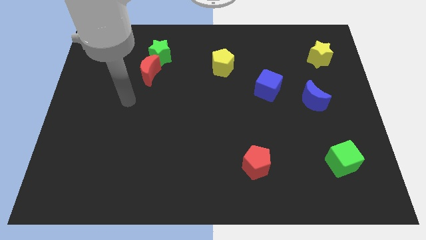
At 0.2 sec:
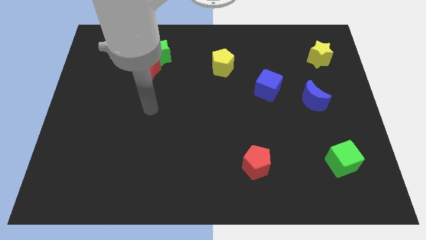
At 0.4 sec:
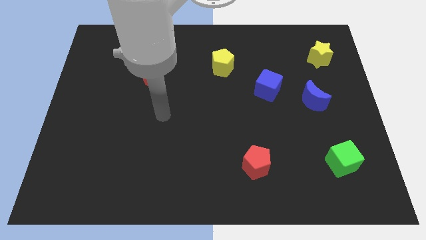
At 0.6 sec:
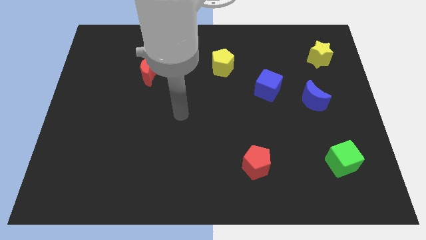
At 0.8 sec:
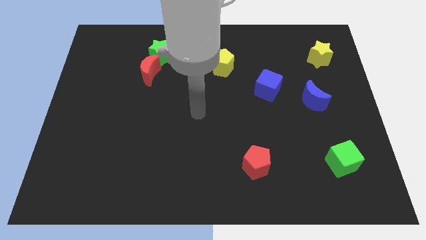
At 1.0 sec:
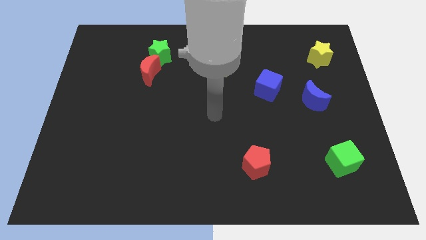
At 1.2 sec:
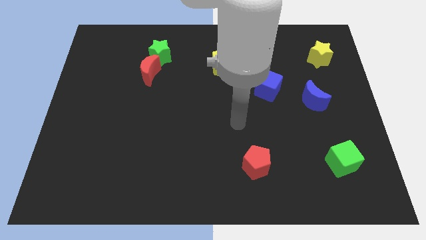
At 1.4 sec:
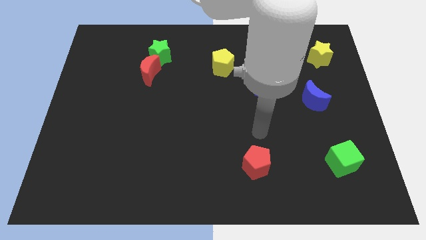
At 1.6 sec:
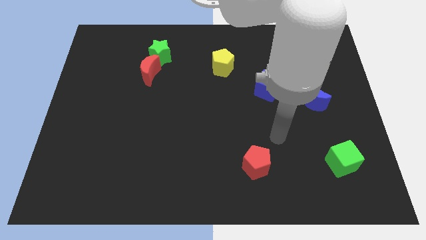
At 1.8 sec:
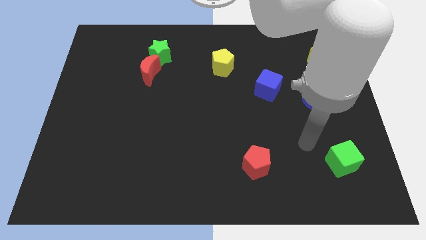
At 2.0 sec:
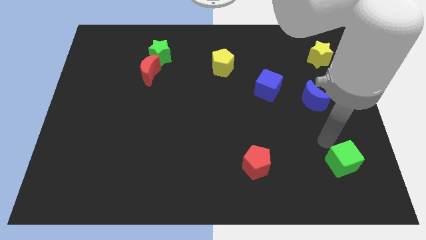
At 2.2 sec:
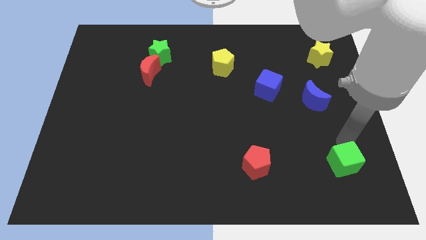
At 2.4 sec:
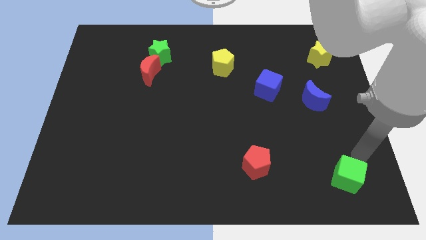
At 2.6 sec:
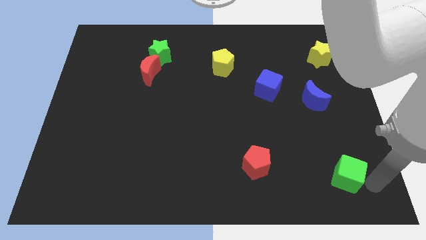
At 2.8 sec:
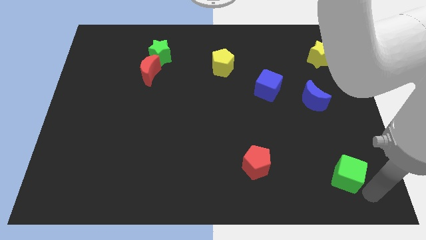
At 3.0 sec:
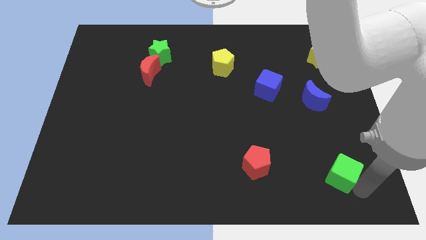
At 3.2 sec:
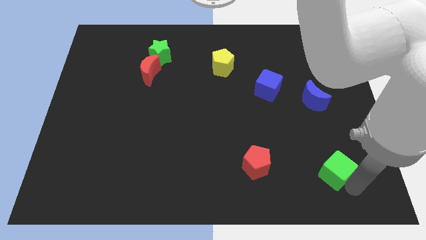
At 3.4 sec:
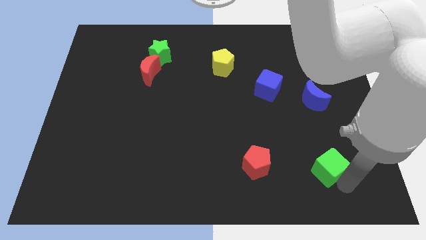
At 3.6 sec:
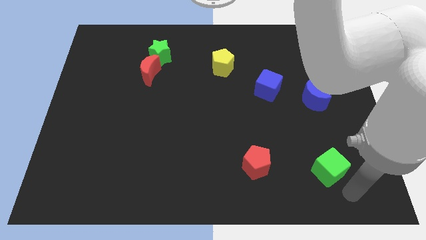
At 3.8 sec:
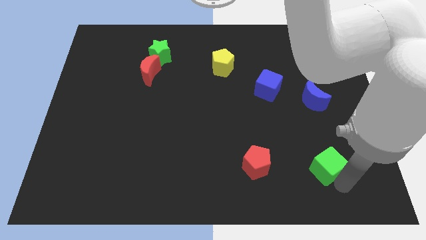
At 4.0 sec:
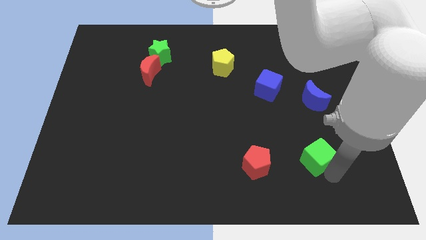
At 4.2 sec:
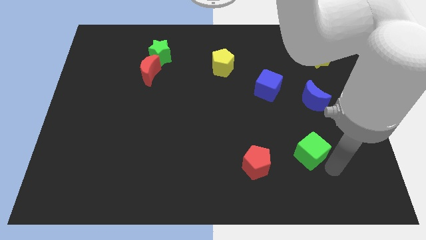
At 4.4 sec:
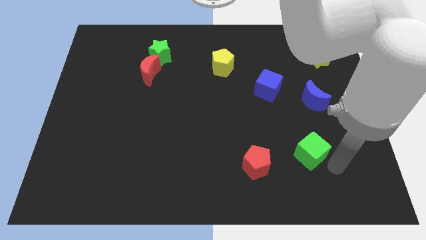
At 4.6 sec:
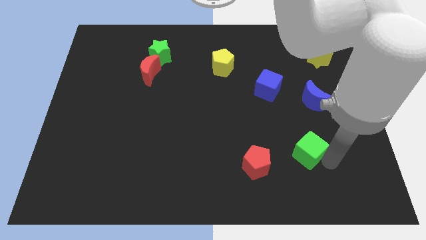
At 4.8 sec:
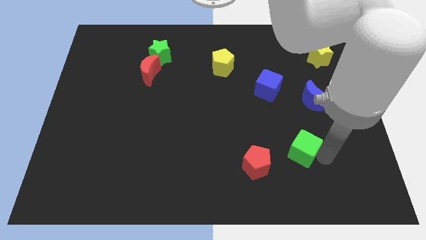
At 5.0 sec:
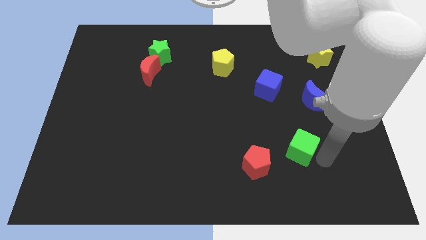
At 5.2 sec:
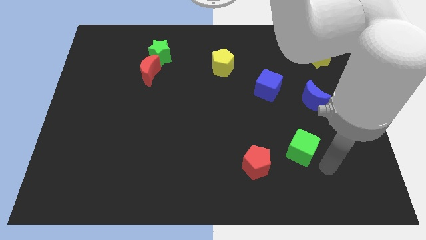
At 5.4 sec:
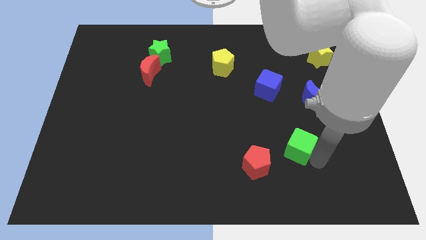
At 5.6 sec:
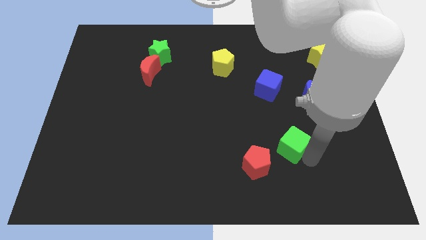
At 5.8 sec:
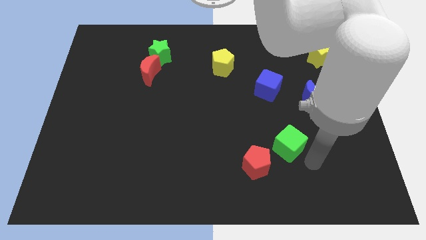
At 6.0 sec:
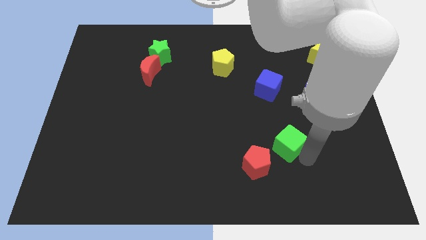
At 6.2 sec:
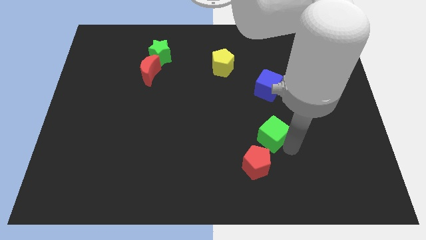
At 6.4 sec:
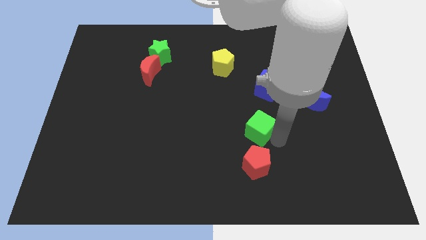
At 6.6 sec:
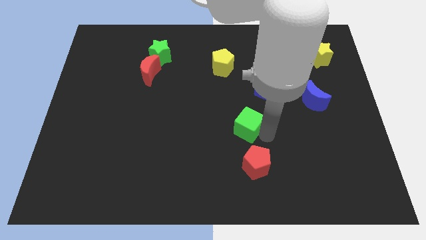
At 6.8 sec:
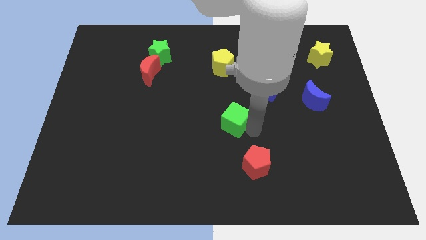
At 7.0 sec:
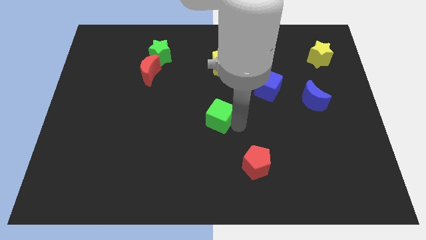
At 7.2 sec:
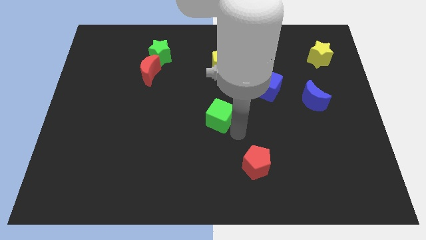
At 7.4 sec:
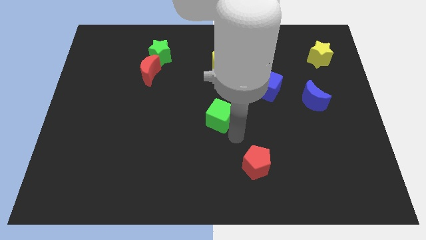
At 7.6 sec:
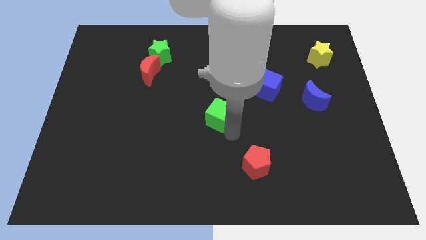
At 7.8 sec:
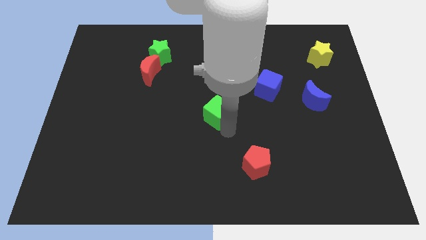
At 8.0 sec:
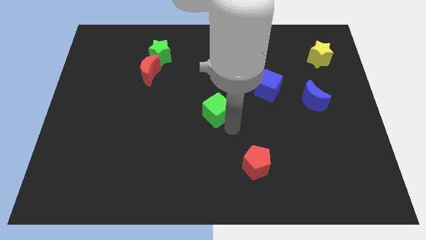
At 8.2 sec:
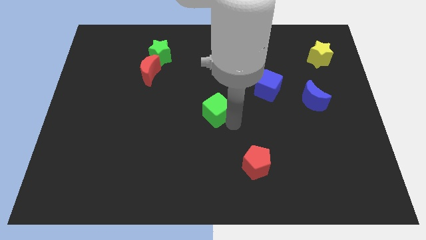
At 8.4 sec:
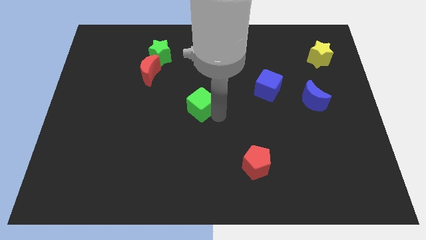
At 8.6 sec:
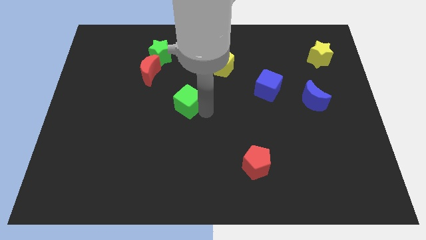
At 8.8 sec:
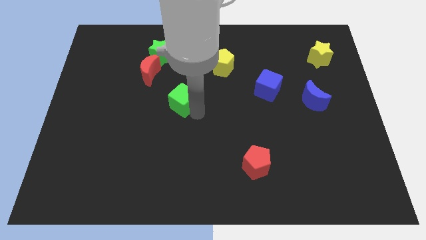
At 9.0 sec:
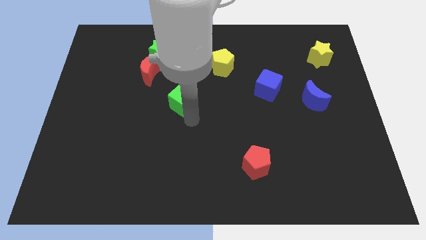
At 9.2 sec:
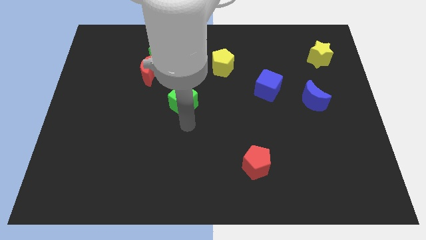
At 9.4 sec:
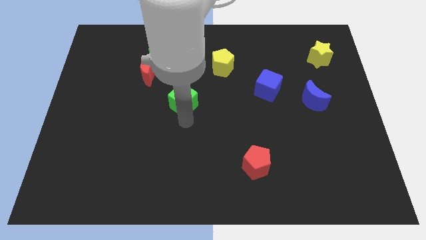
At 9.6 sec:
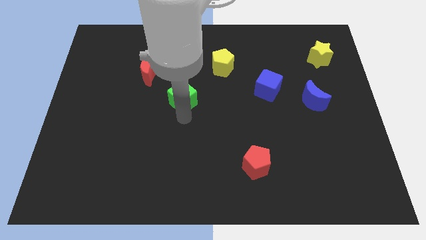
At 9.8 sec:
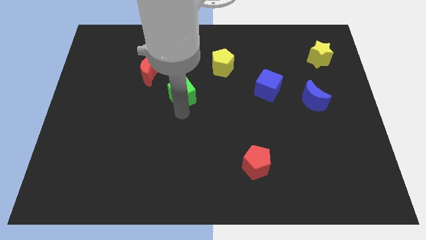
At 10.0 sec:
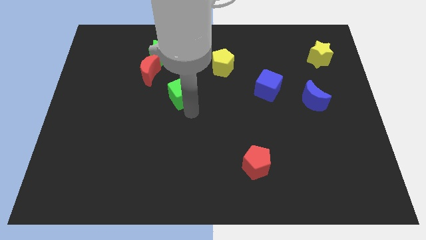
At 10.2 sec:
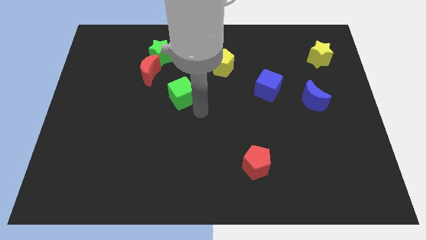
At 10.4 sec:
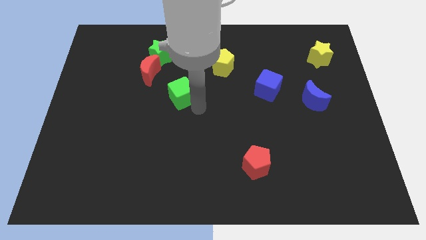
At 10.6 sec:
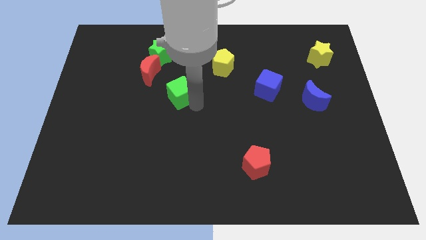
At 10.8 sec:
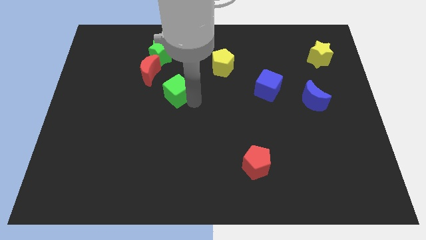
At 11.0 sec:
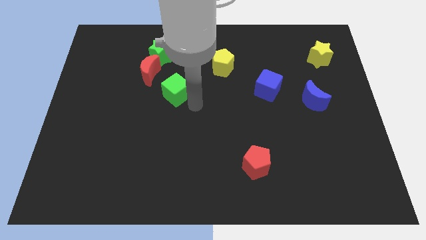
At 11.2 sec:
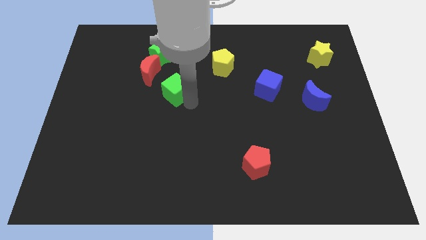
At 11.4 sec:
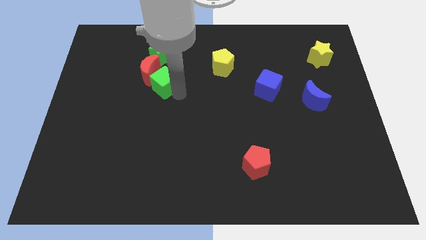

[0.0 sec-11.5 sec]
push the green cube to the red moon

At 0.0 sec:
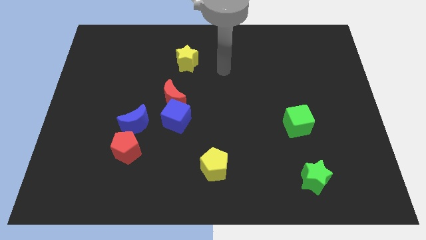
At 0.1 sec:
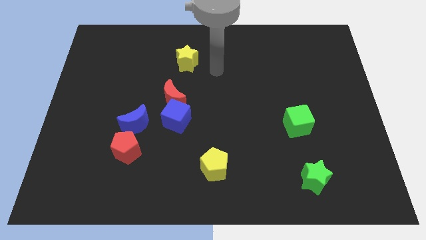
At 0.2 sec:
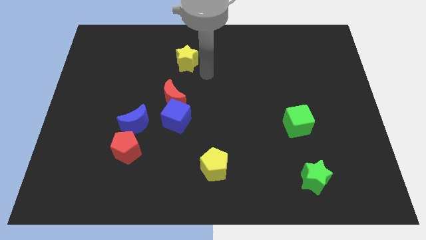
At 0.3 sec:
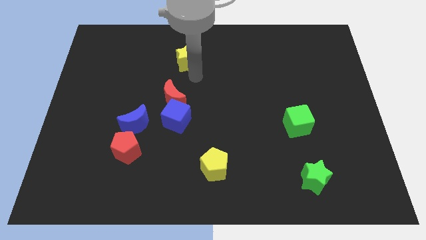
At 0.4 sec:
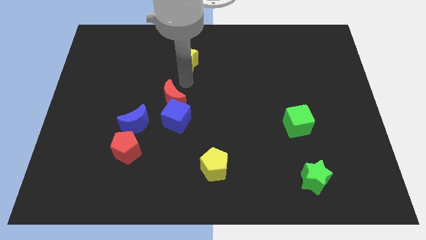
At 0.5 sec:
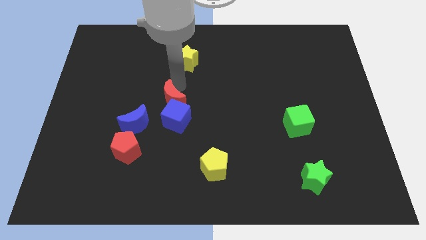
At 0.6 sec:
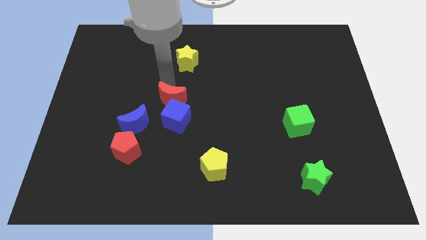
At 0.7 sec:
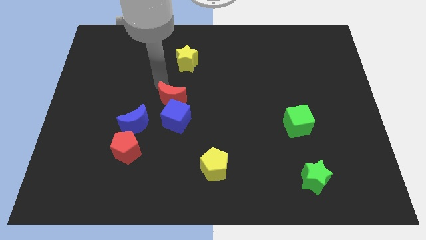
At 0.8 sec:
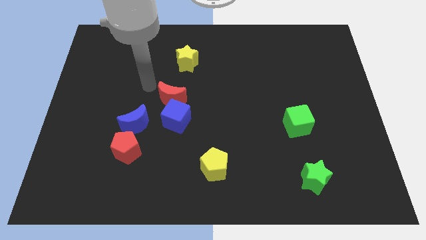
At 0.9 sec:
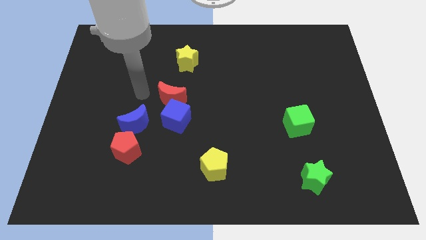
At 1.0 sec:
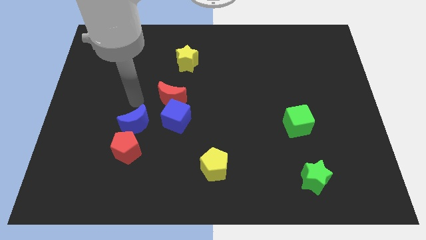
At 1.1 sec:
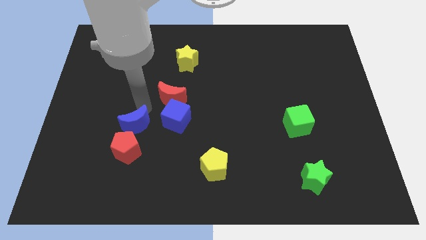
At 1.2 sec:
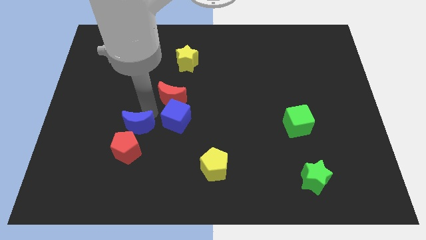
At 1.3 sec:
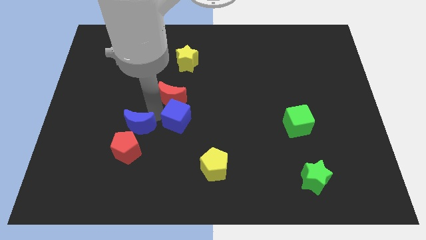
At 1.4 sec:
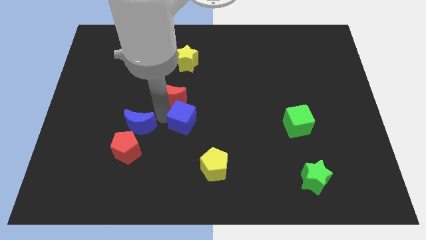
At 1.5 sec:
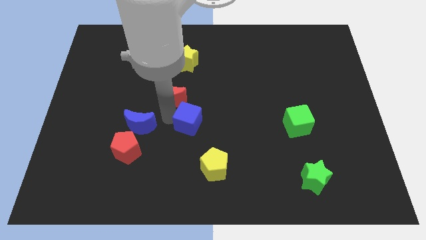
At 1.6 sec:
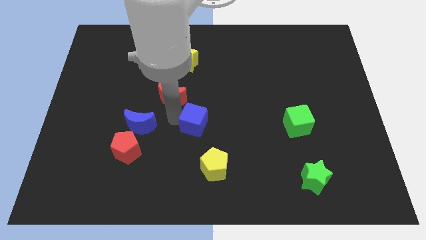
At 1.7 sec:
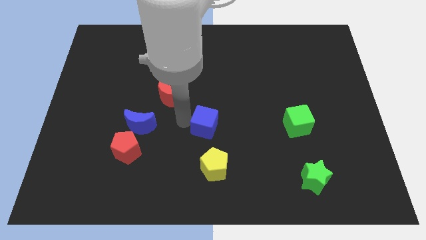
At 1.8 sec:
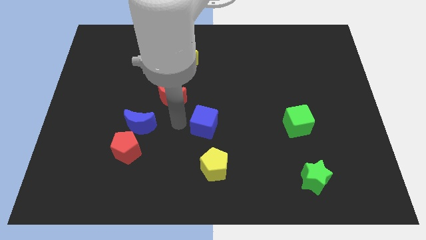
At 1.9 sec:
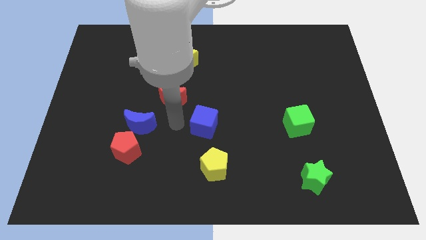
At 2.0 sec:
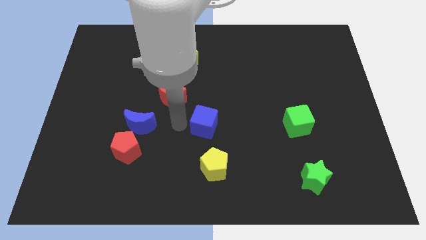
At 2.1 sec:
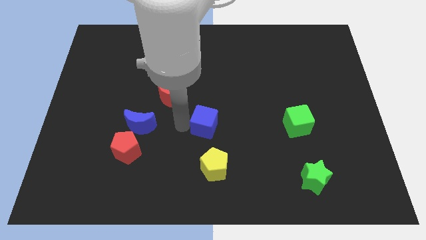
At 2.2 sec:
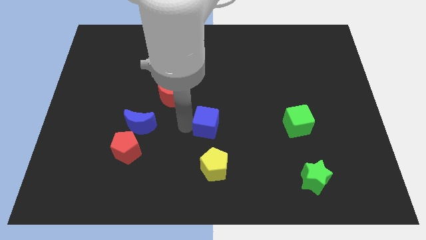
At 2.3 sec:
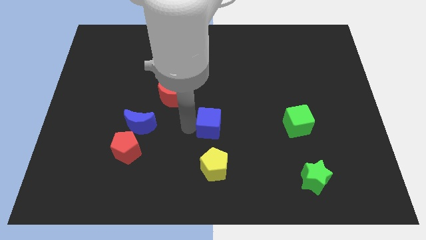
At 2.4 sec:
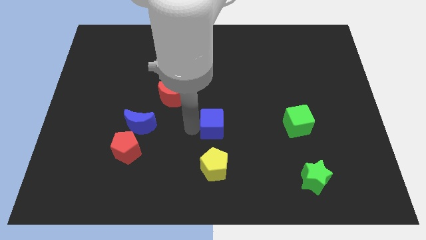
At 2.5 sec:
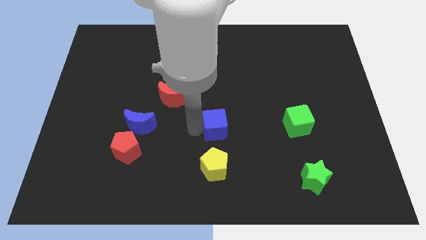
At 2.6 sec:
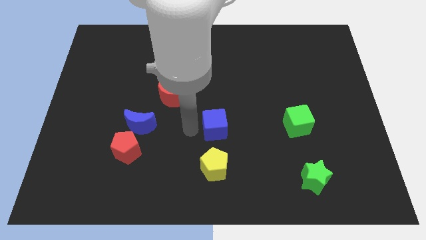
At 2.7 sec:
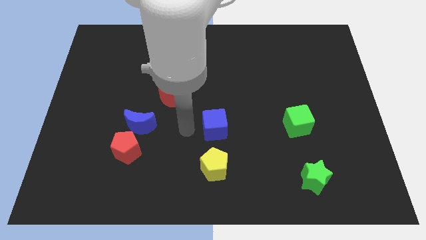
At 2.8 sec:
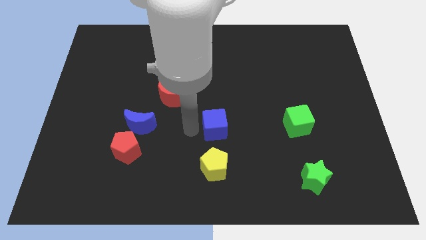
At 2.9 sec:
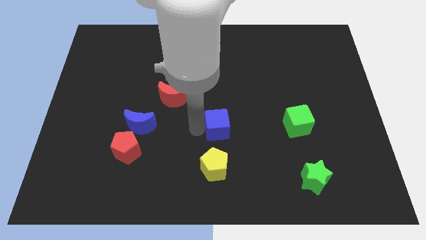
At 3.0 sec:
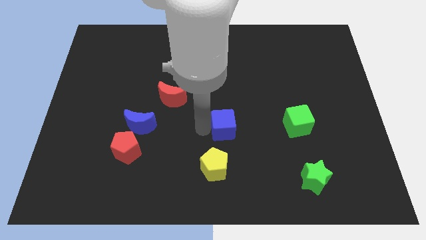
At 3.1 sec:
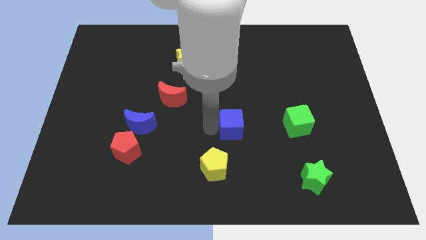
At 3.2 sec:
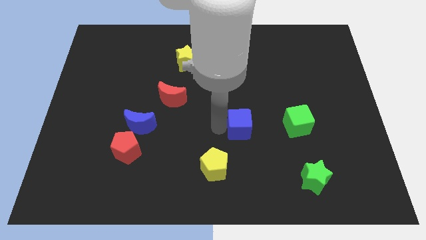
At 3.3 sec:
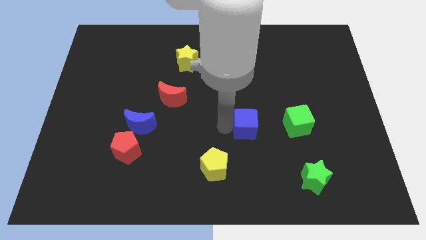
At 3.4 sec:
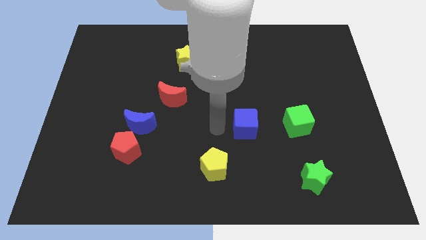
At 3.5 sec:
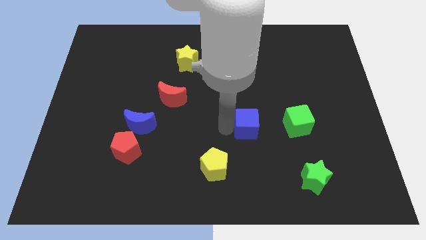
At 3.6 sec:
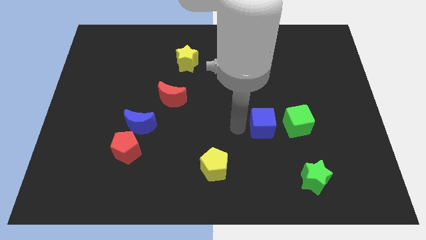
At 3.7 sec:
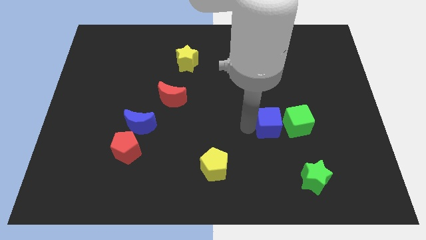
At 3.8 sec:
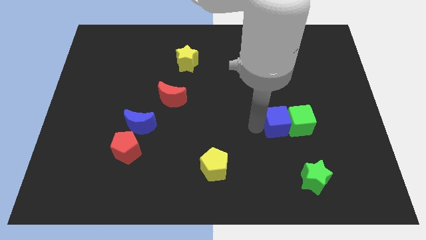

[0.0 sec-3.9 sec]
put the blue cube towards the green cube
